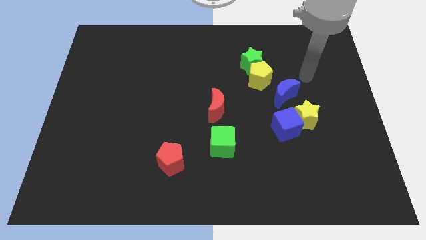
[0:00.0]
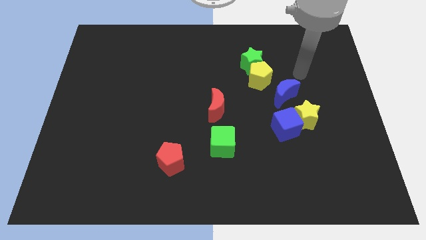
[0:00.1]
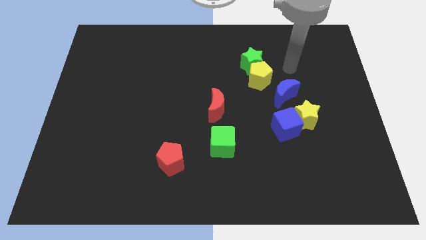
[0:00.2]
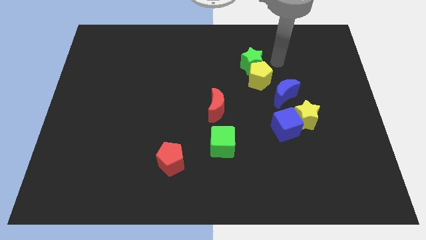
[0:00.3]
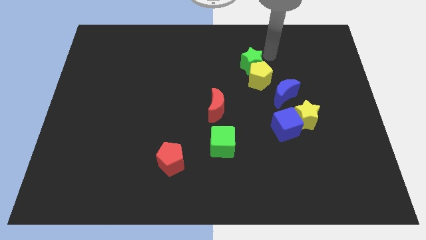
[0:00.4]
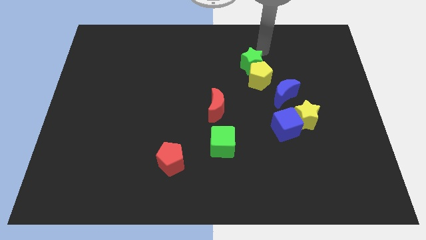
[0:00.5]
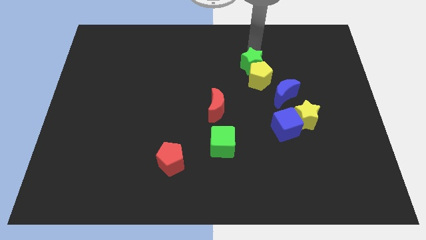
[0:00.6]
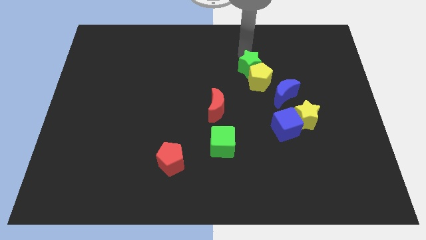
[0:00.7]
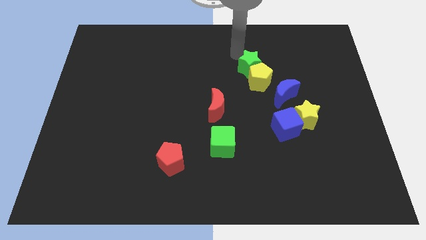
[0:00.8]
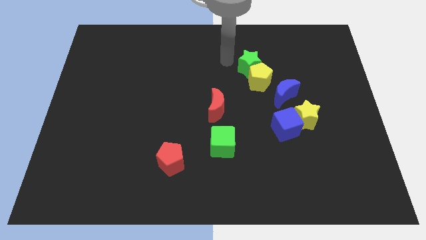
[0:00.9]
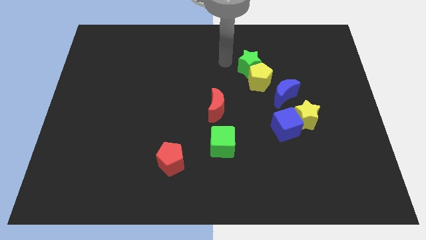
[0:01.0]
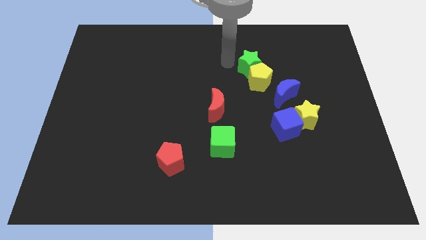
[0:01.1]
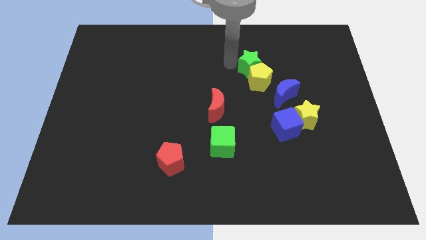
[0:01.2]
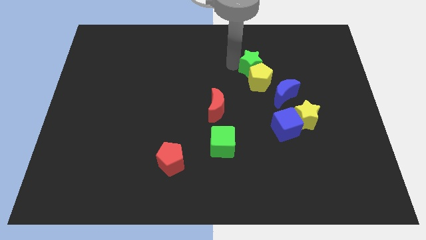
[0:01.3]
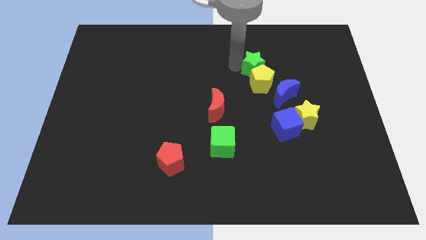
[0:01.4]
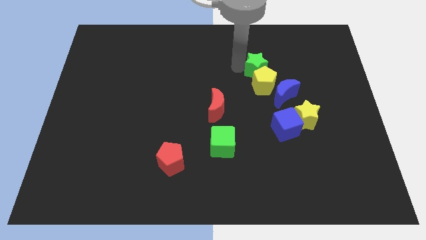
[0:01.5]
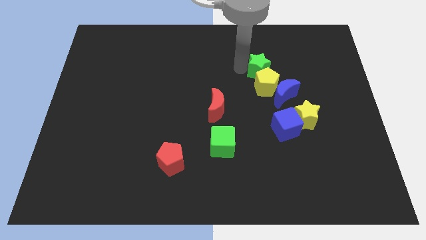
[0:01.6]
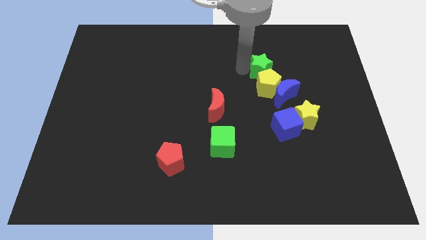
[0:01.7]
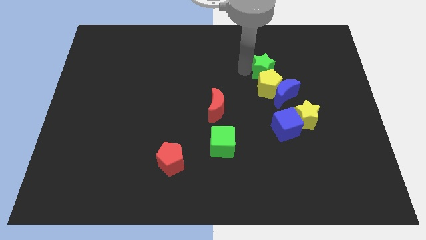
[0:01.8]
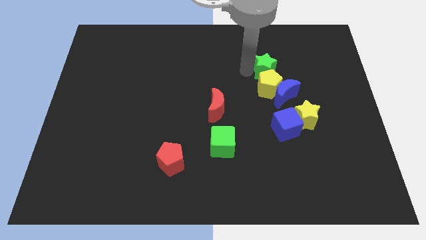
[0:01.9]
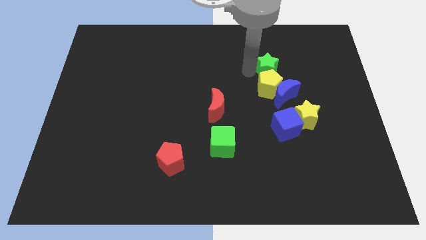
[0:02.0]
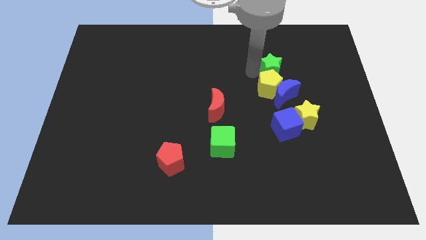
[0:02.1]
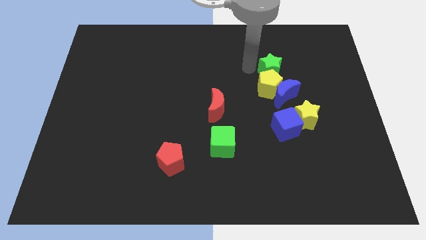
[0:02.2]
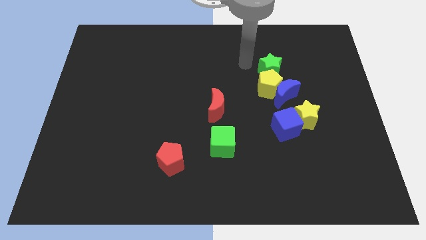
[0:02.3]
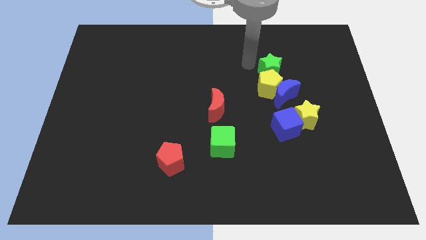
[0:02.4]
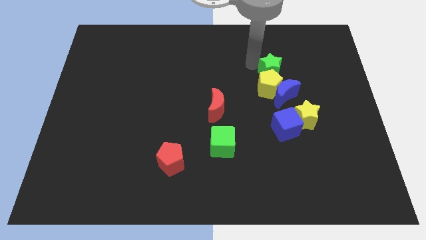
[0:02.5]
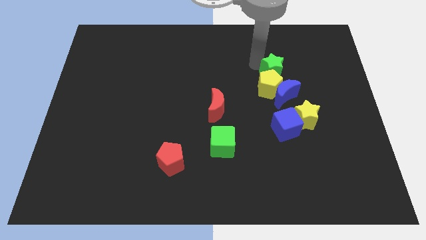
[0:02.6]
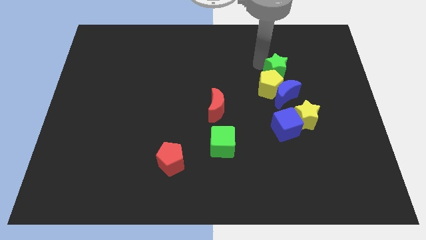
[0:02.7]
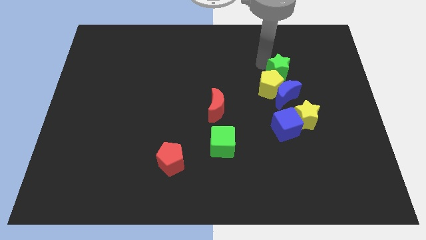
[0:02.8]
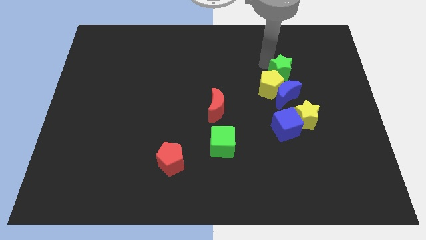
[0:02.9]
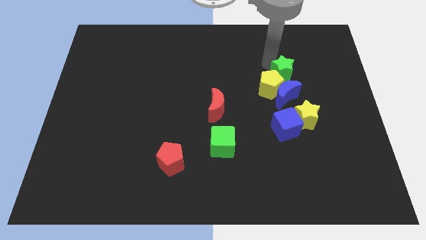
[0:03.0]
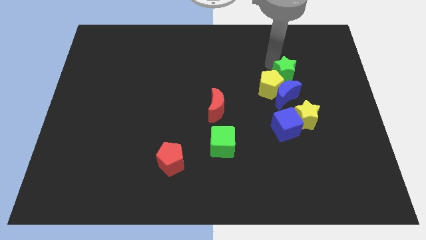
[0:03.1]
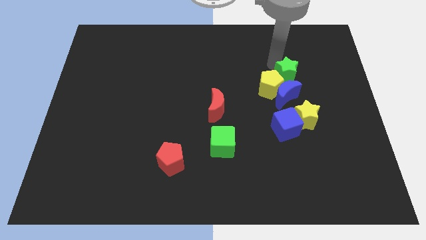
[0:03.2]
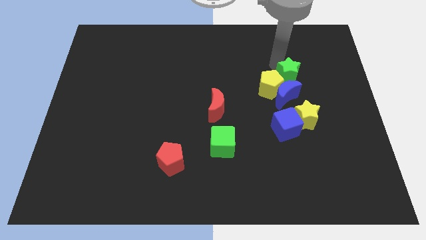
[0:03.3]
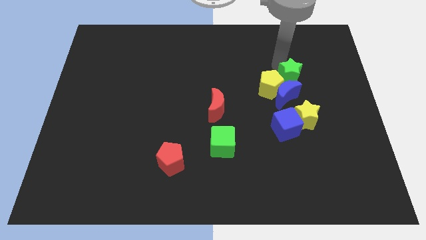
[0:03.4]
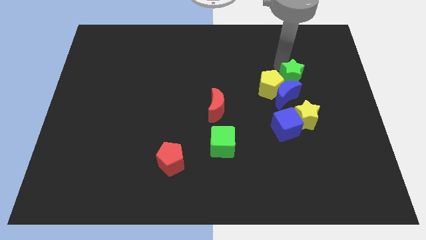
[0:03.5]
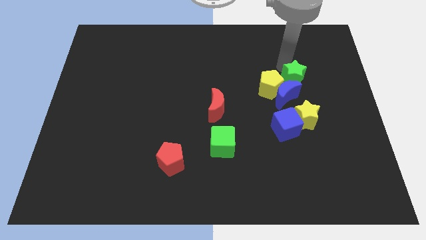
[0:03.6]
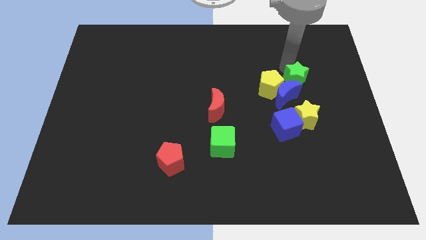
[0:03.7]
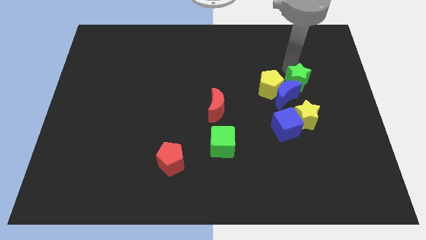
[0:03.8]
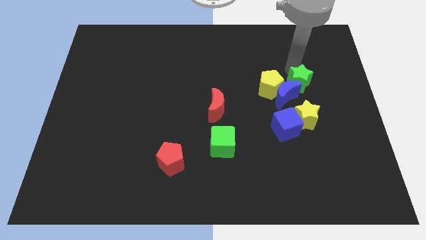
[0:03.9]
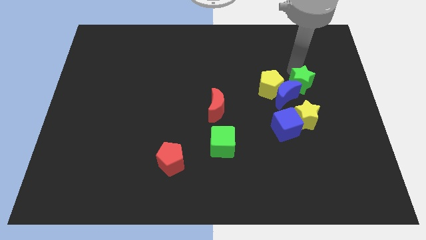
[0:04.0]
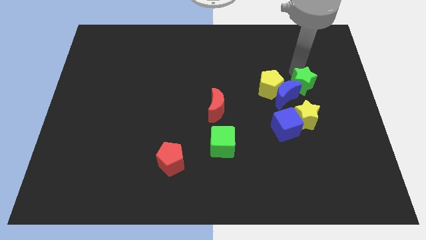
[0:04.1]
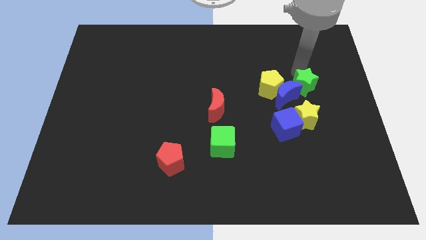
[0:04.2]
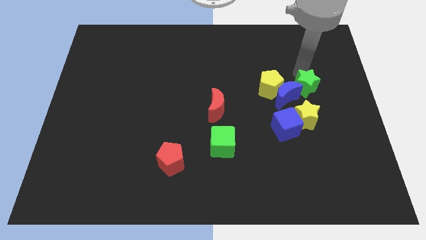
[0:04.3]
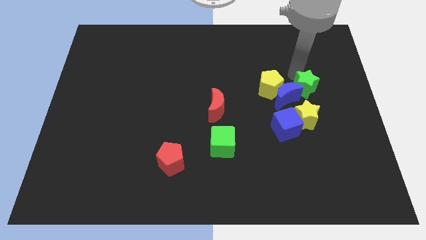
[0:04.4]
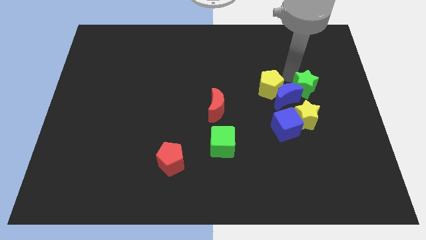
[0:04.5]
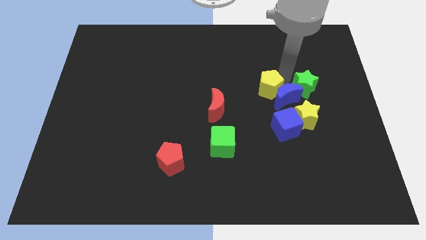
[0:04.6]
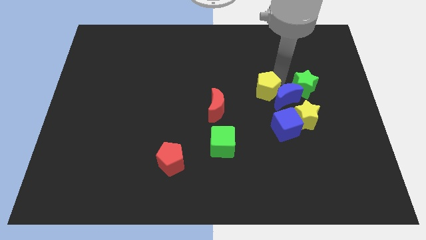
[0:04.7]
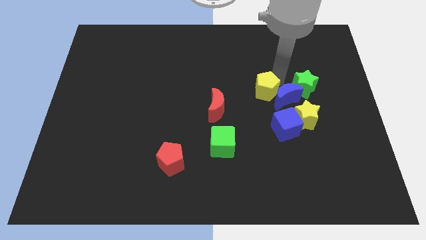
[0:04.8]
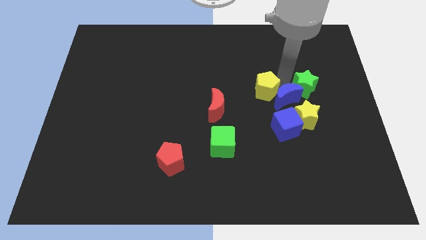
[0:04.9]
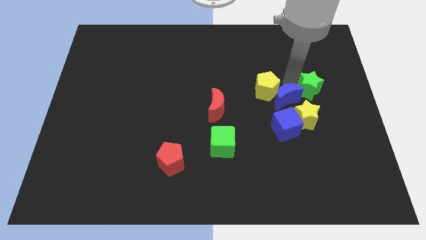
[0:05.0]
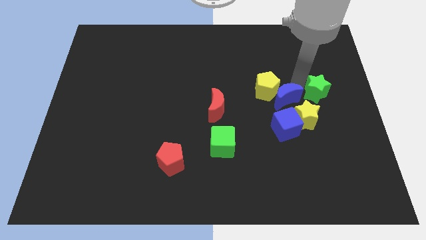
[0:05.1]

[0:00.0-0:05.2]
move the green star to the right side

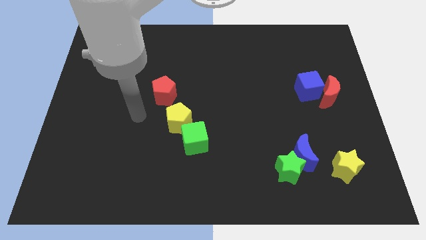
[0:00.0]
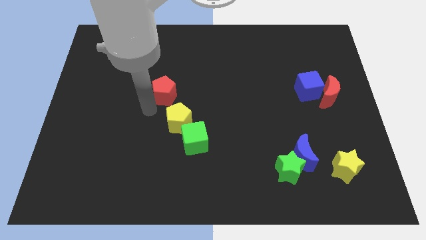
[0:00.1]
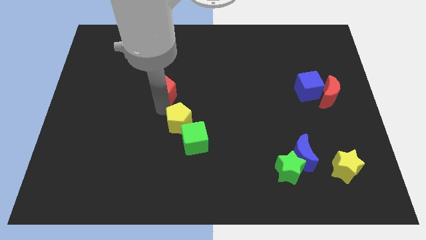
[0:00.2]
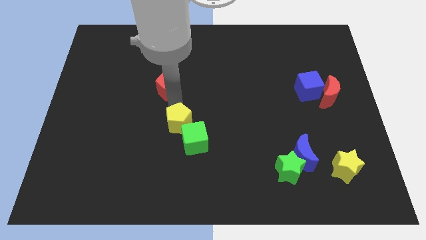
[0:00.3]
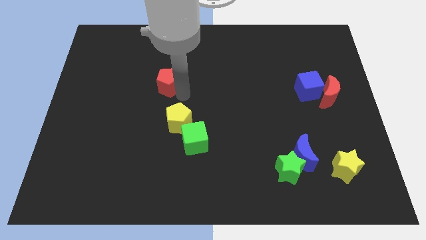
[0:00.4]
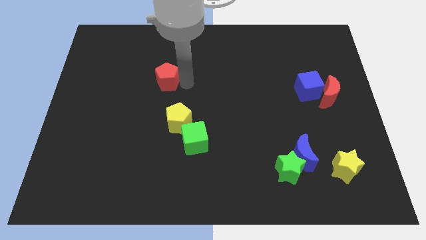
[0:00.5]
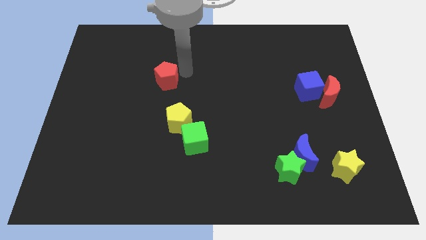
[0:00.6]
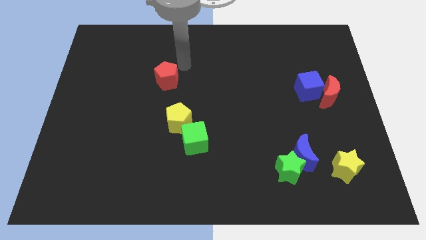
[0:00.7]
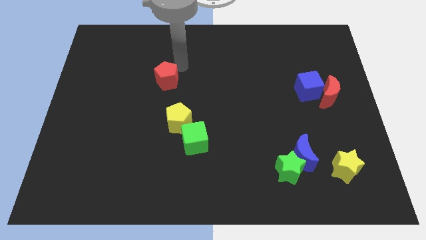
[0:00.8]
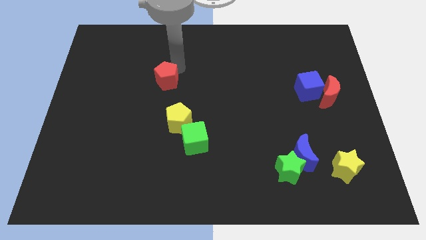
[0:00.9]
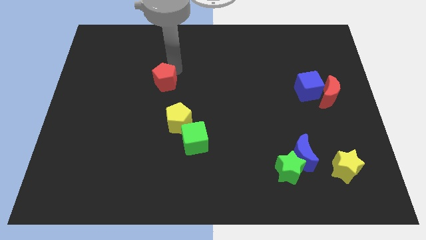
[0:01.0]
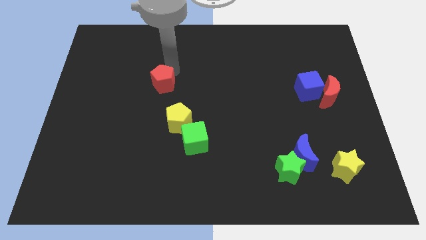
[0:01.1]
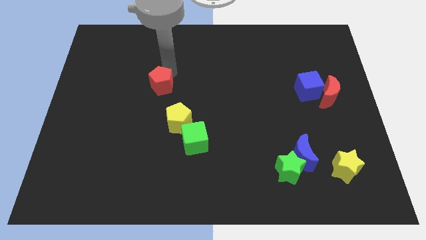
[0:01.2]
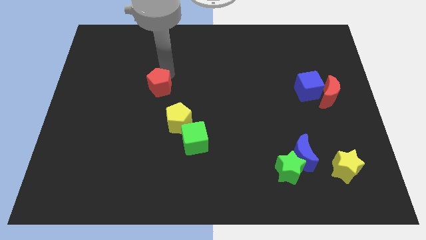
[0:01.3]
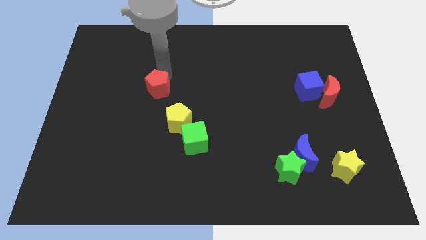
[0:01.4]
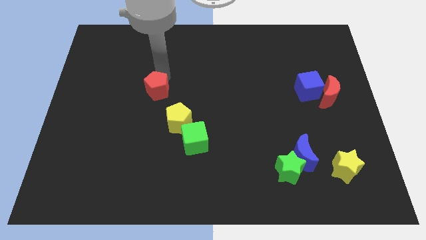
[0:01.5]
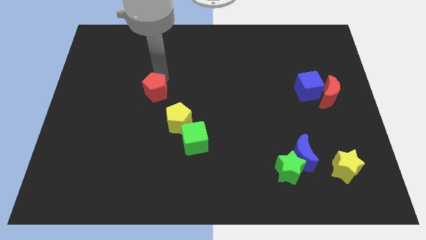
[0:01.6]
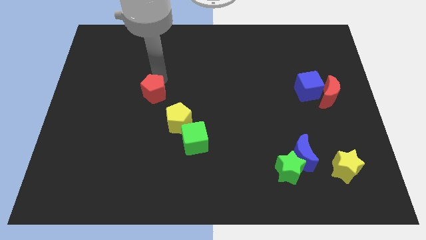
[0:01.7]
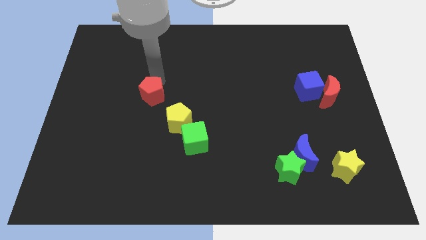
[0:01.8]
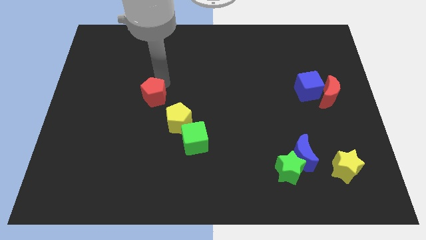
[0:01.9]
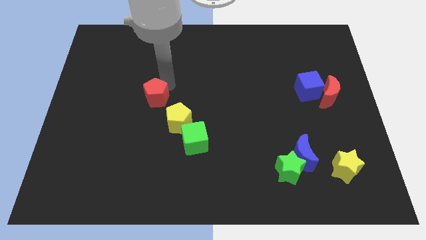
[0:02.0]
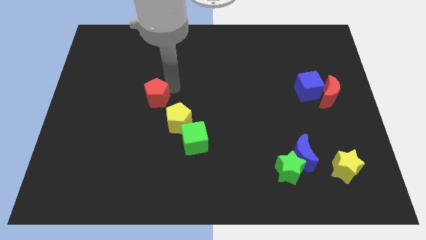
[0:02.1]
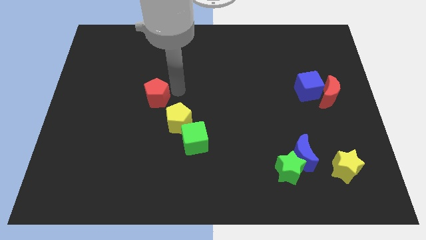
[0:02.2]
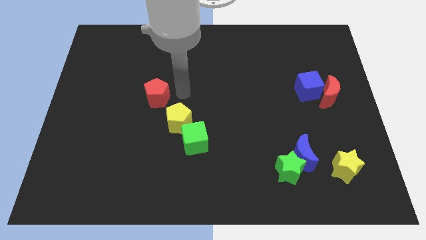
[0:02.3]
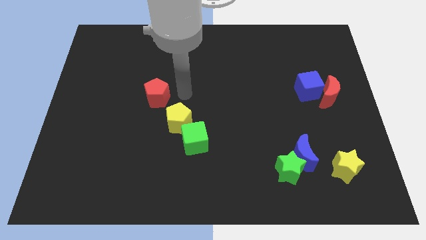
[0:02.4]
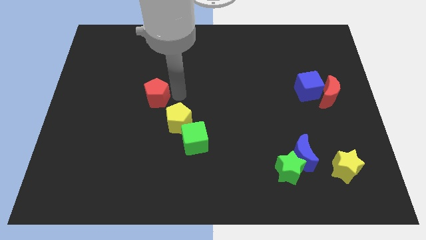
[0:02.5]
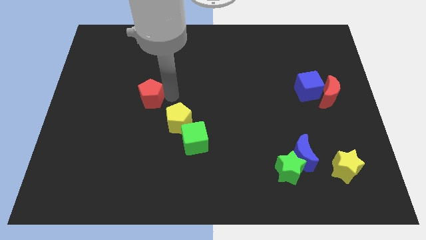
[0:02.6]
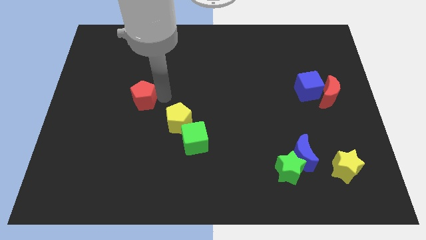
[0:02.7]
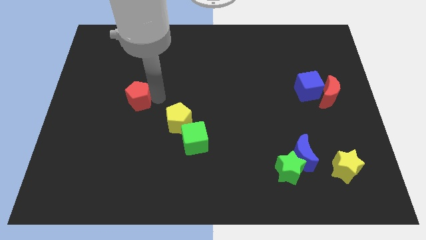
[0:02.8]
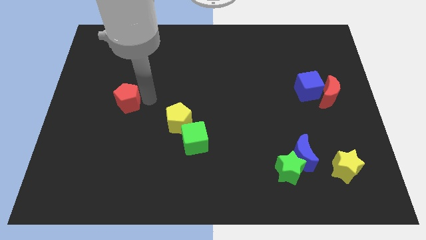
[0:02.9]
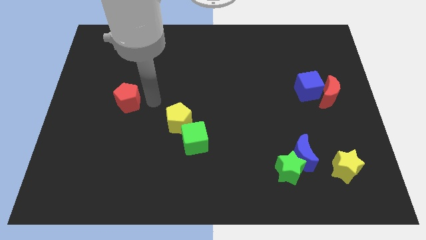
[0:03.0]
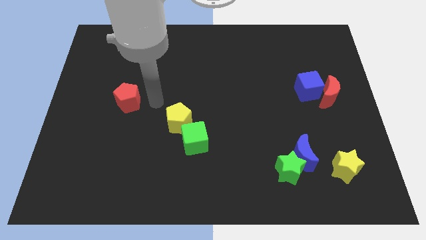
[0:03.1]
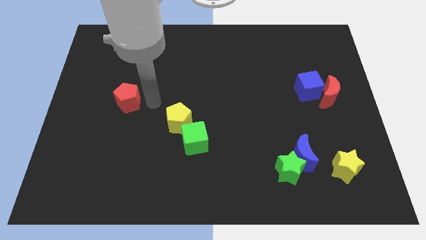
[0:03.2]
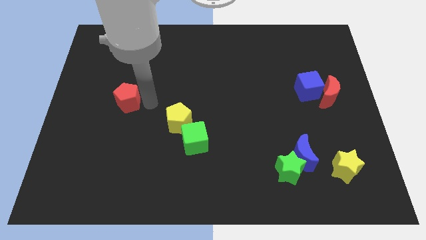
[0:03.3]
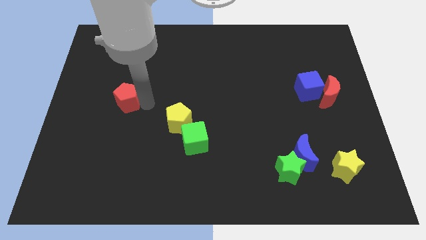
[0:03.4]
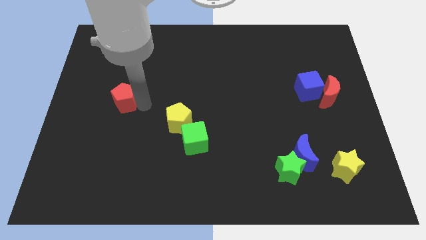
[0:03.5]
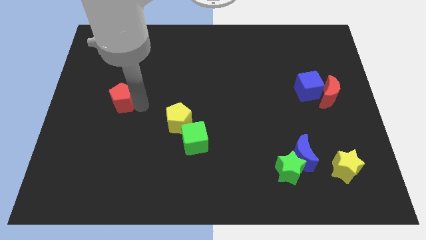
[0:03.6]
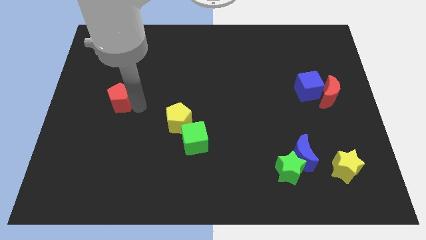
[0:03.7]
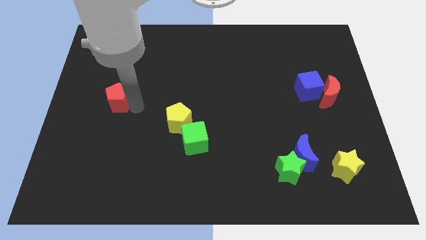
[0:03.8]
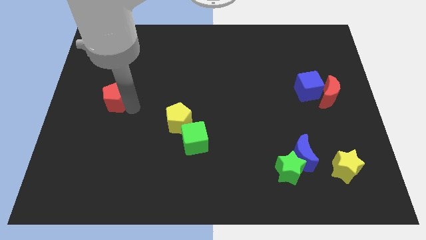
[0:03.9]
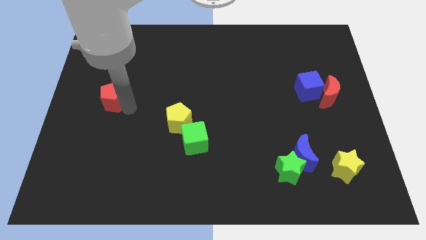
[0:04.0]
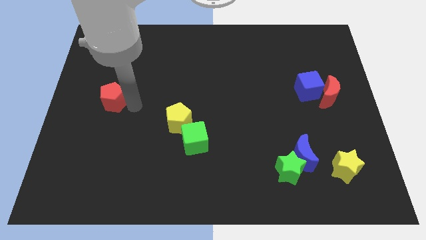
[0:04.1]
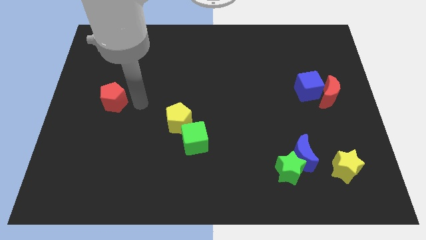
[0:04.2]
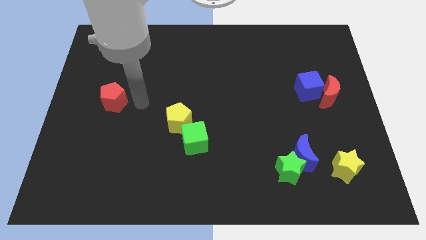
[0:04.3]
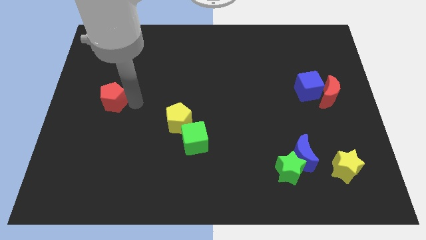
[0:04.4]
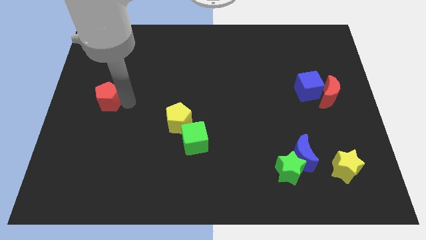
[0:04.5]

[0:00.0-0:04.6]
slide the red pentagon to the left side
